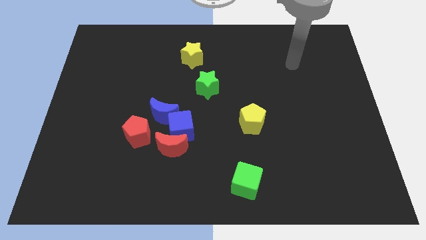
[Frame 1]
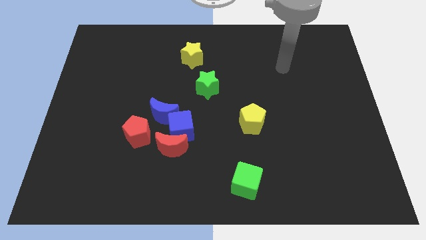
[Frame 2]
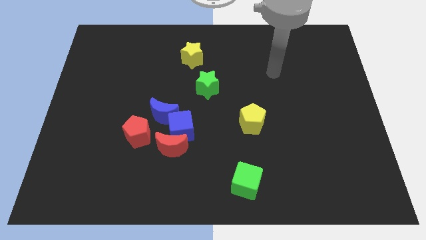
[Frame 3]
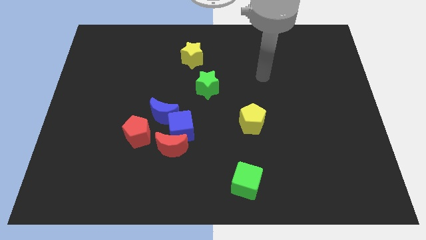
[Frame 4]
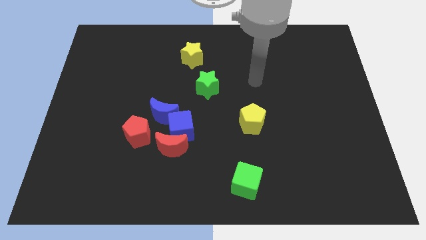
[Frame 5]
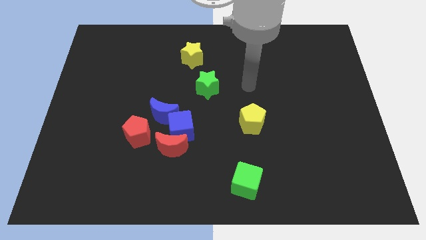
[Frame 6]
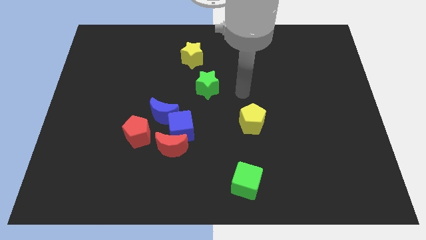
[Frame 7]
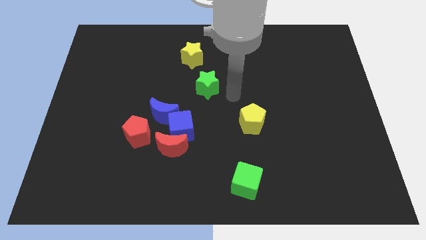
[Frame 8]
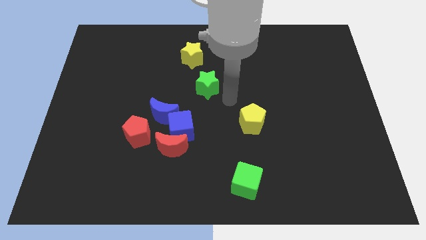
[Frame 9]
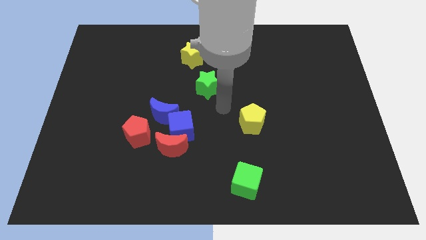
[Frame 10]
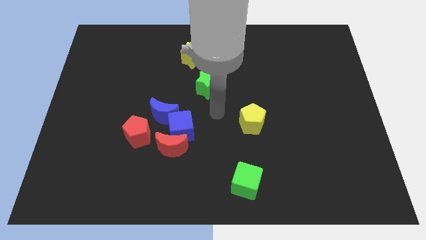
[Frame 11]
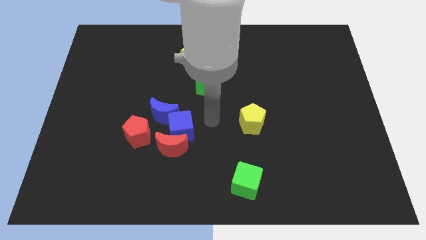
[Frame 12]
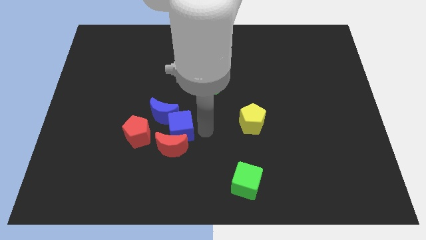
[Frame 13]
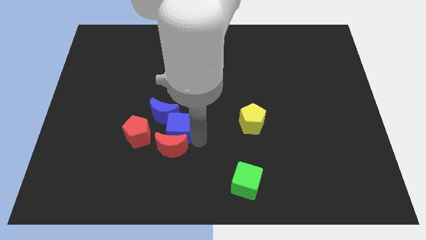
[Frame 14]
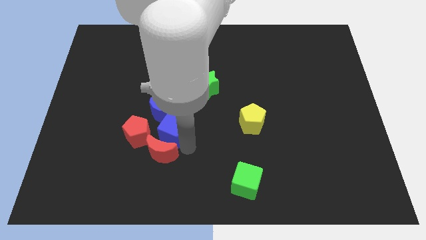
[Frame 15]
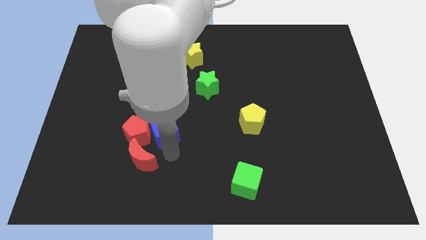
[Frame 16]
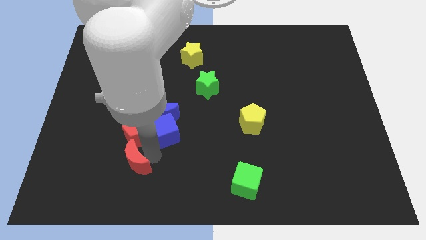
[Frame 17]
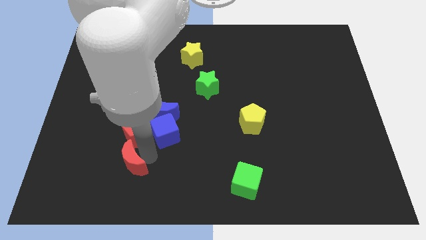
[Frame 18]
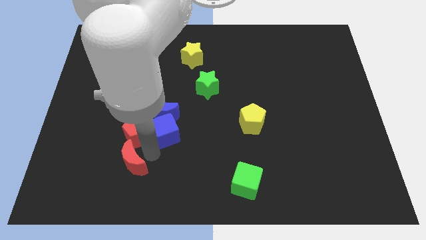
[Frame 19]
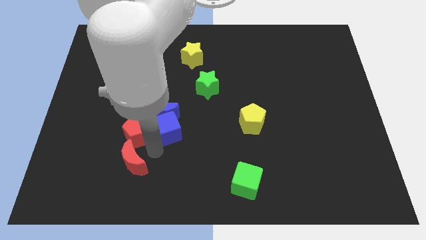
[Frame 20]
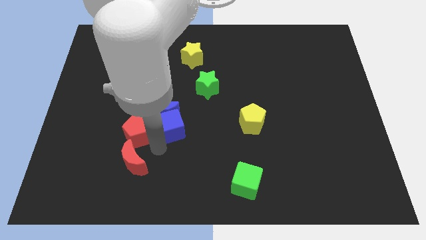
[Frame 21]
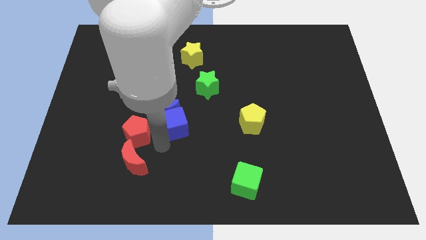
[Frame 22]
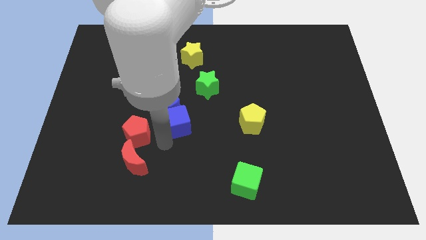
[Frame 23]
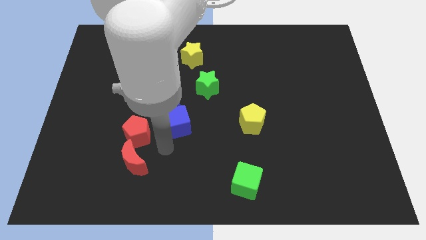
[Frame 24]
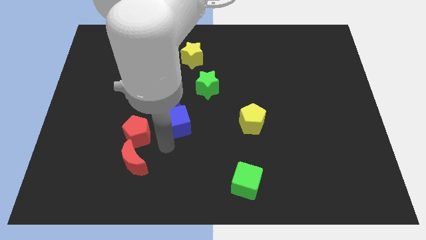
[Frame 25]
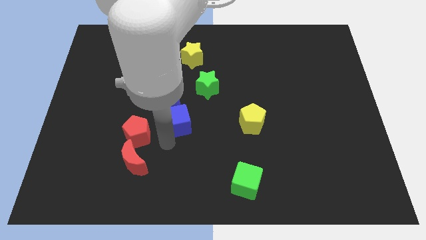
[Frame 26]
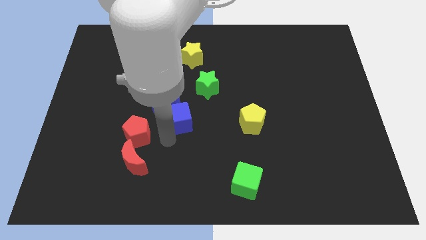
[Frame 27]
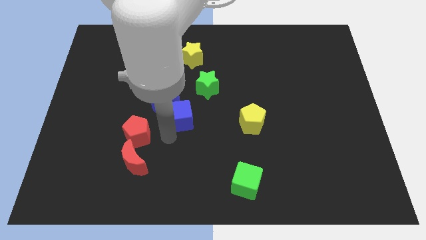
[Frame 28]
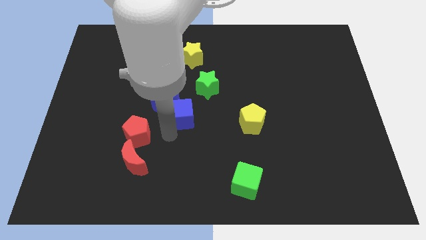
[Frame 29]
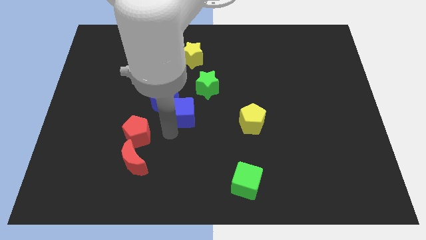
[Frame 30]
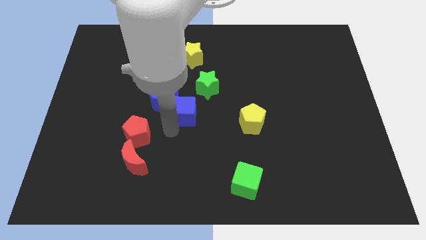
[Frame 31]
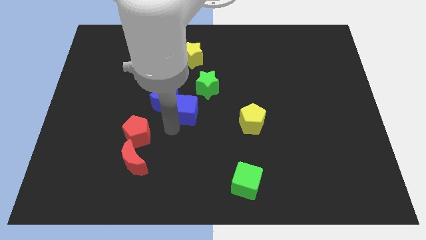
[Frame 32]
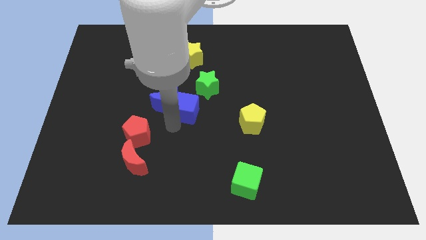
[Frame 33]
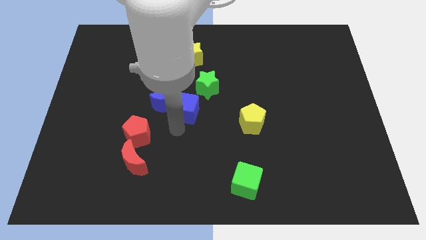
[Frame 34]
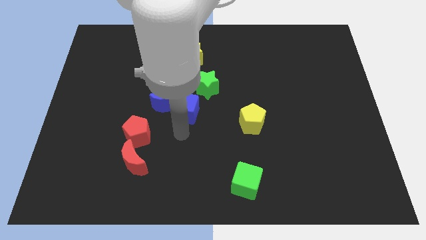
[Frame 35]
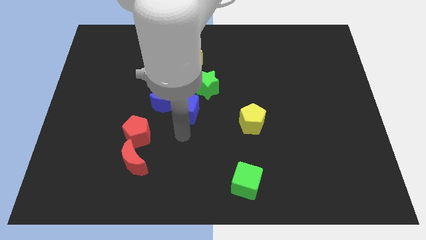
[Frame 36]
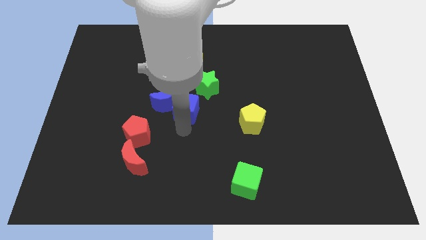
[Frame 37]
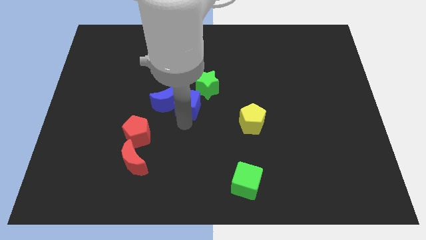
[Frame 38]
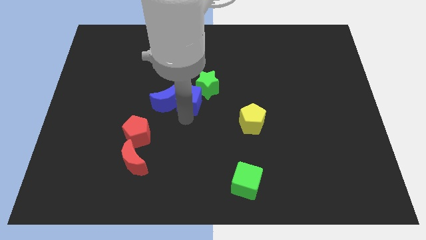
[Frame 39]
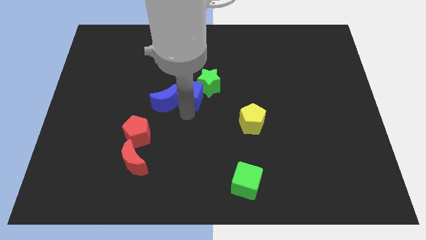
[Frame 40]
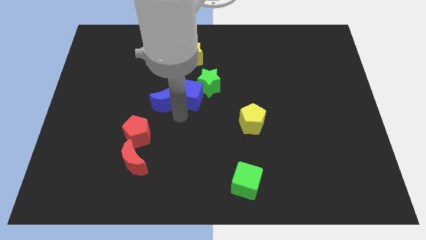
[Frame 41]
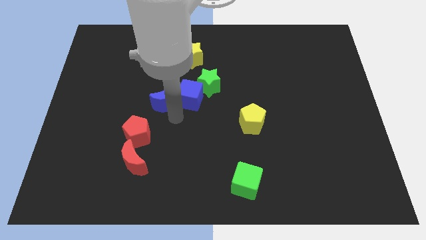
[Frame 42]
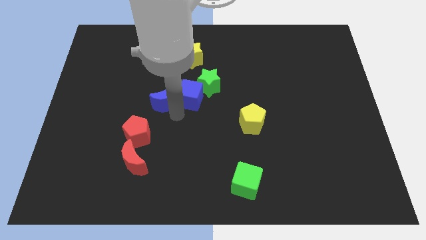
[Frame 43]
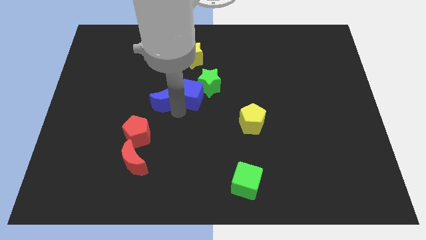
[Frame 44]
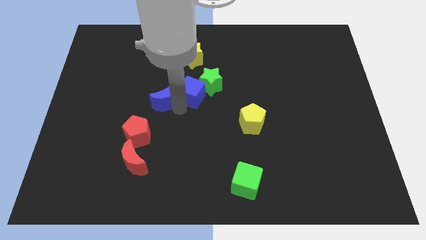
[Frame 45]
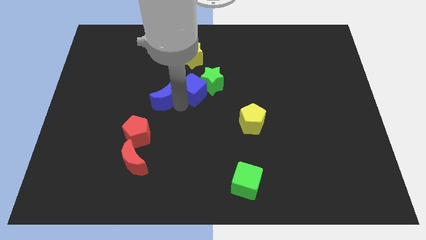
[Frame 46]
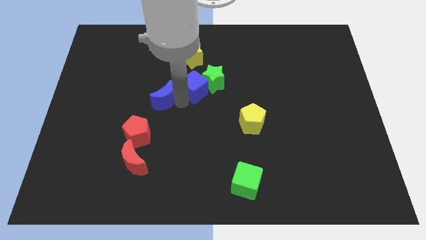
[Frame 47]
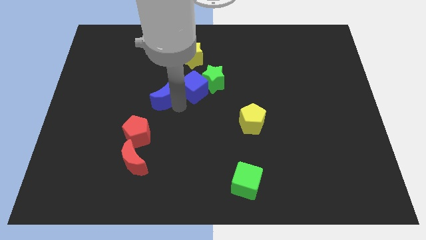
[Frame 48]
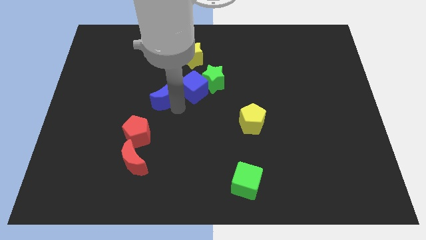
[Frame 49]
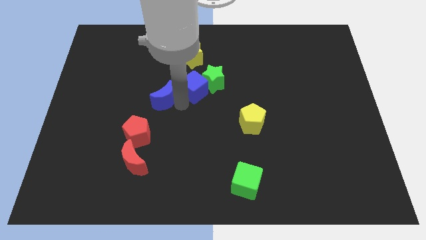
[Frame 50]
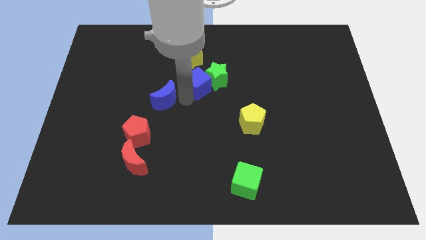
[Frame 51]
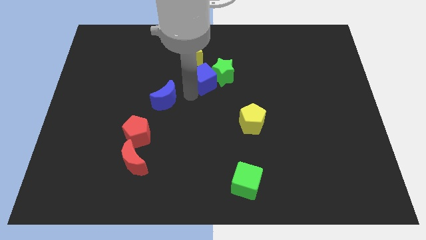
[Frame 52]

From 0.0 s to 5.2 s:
put the blue cube diagonally down and to the right of the yellow star

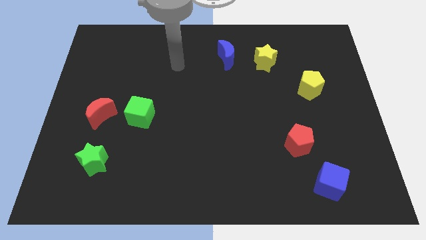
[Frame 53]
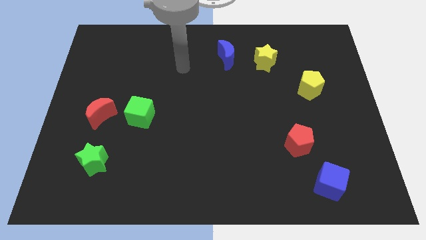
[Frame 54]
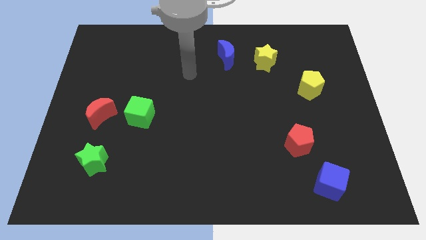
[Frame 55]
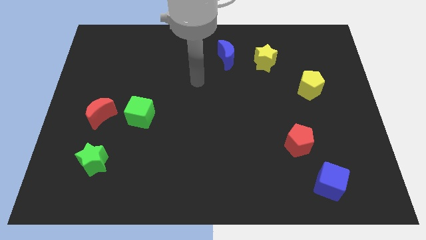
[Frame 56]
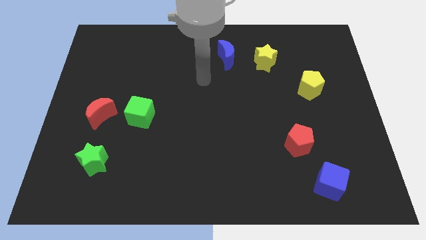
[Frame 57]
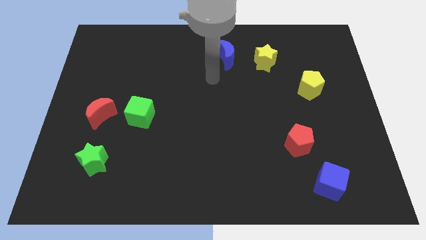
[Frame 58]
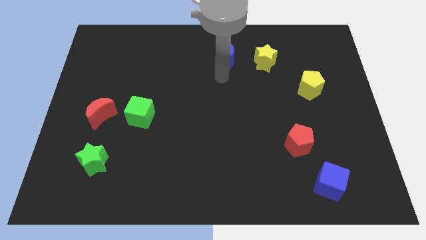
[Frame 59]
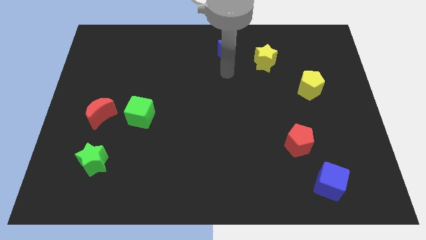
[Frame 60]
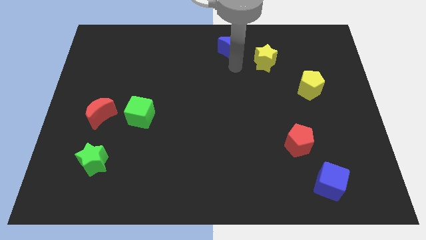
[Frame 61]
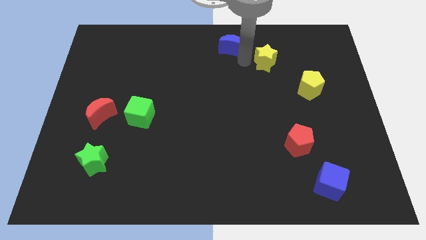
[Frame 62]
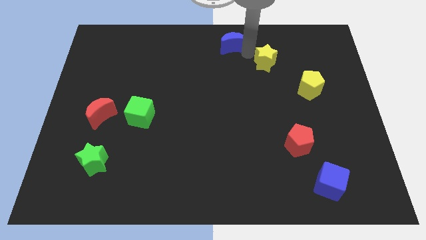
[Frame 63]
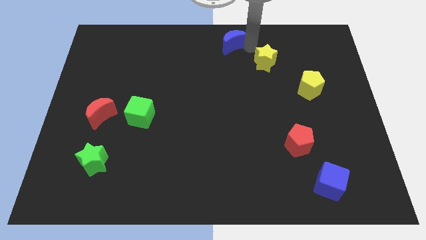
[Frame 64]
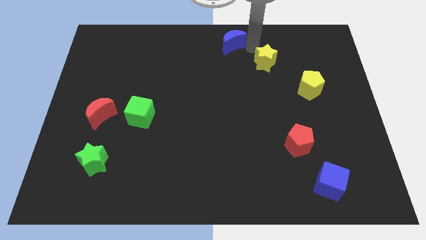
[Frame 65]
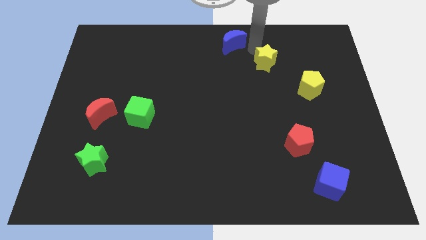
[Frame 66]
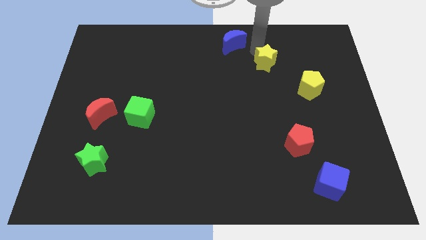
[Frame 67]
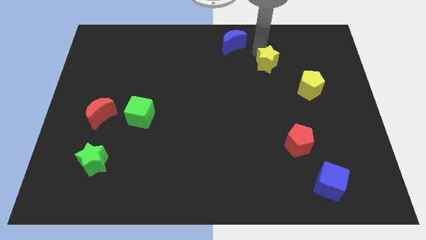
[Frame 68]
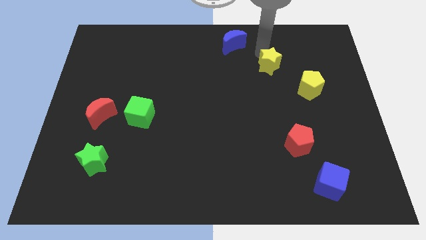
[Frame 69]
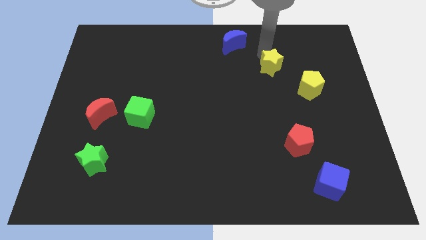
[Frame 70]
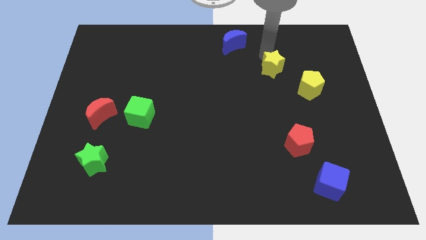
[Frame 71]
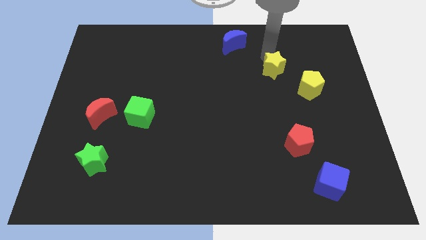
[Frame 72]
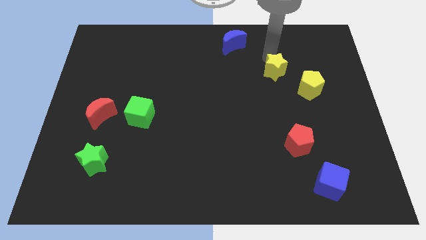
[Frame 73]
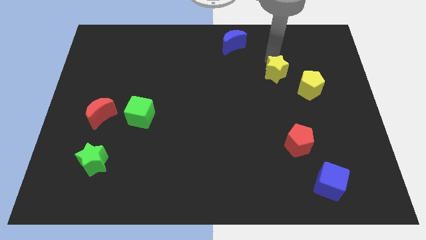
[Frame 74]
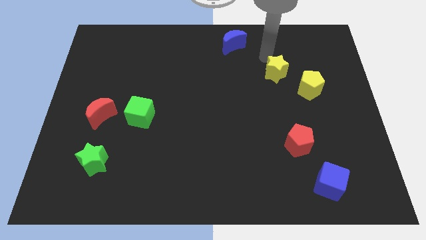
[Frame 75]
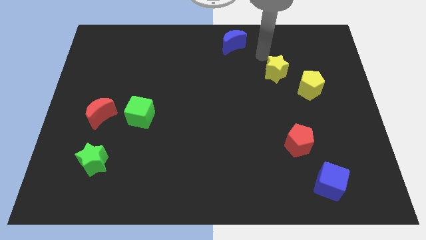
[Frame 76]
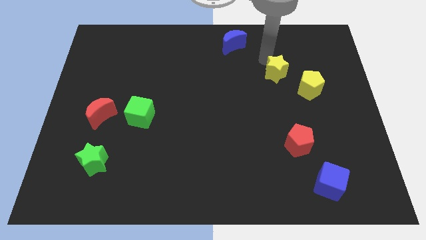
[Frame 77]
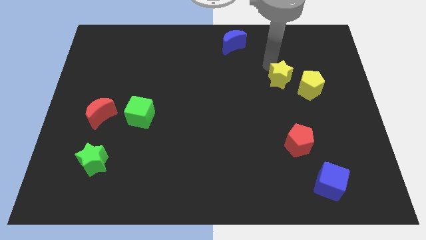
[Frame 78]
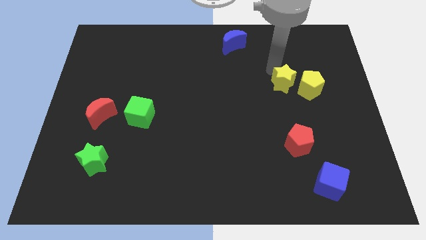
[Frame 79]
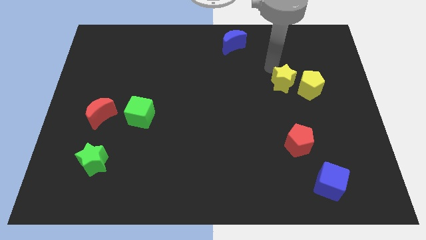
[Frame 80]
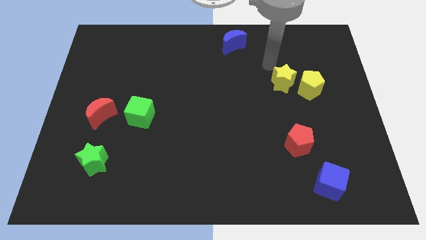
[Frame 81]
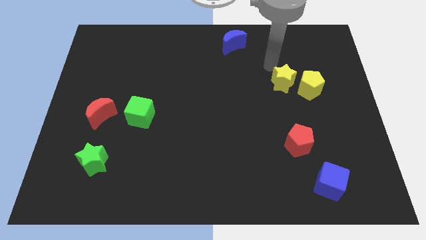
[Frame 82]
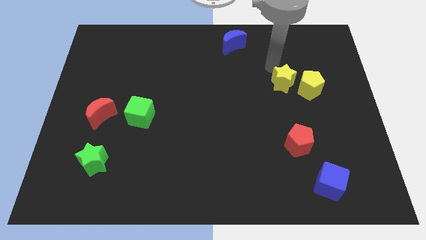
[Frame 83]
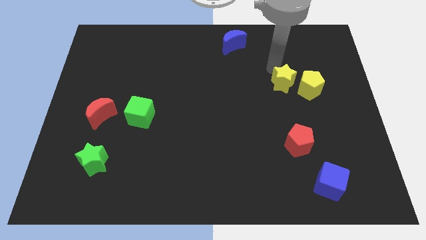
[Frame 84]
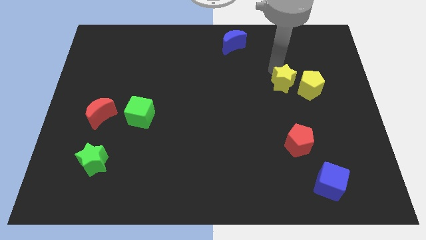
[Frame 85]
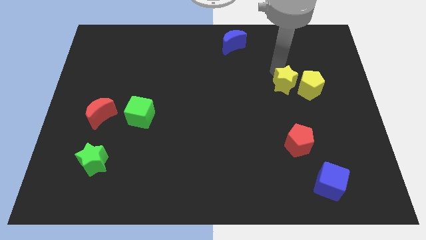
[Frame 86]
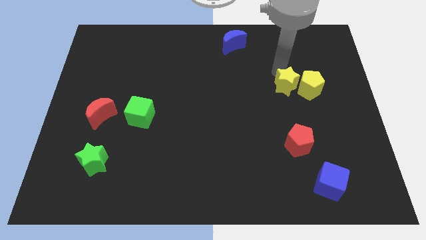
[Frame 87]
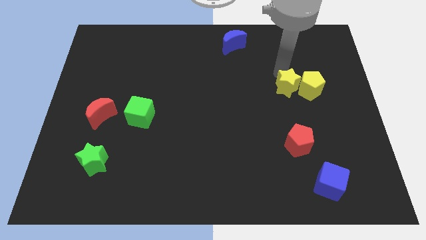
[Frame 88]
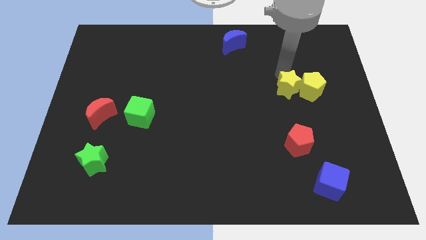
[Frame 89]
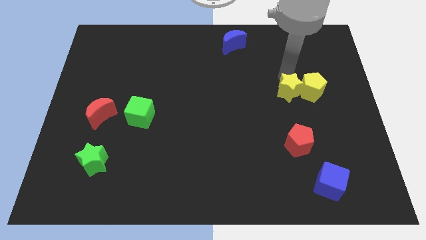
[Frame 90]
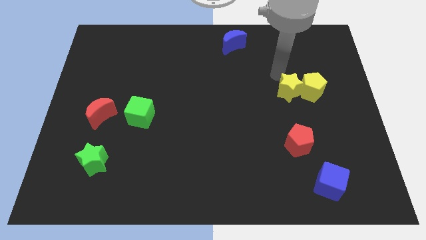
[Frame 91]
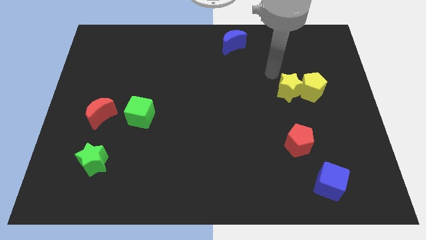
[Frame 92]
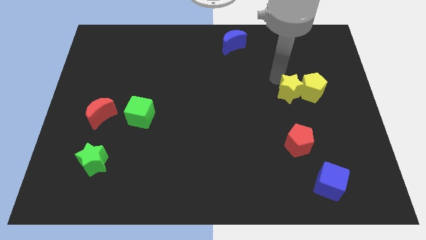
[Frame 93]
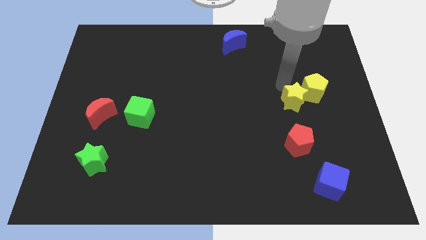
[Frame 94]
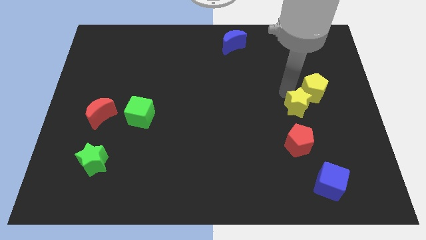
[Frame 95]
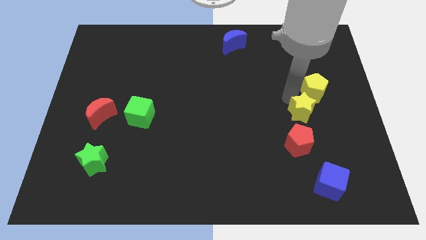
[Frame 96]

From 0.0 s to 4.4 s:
put the yellow star diagonally up and to the right of the red pentagon
